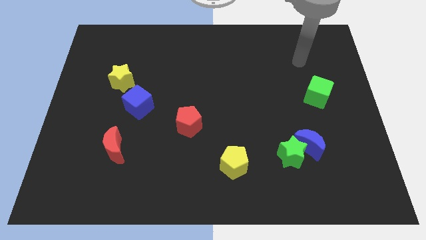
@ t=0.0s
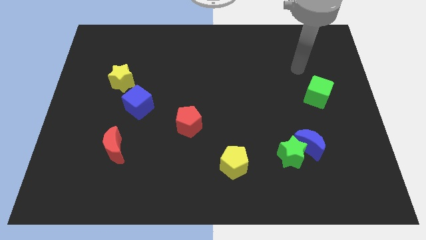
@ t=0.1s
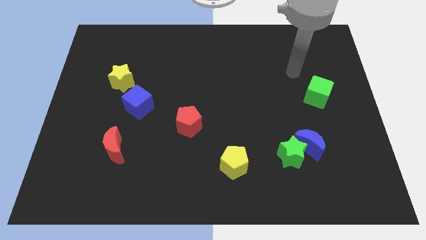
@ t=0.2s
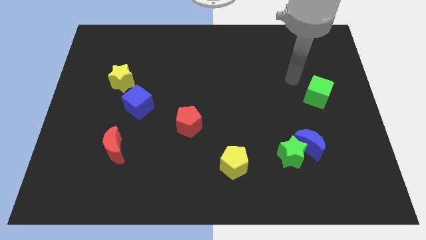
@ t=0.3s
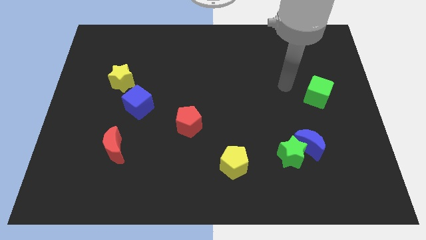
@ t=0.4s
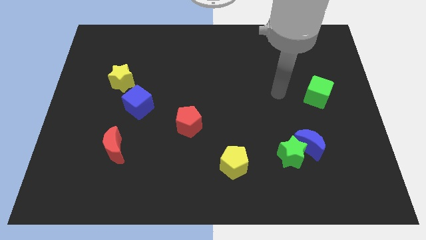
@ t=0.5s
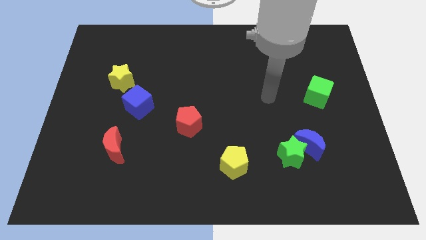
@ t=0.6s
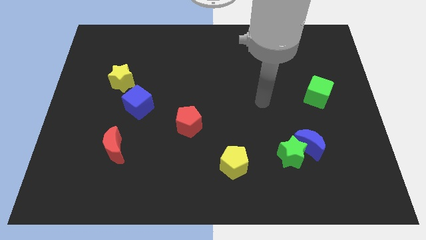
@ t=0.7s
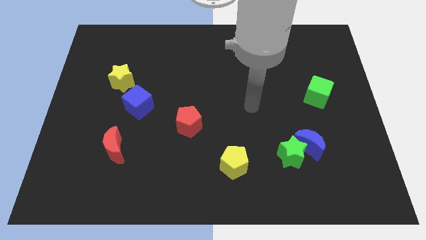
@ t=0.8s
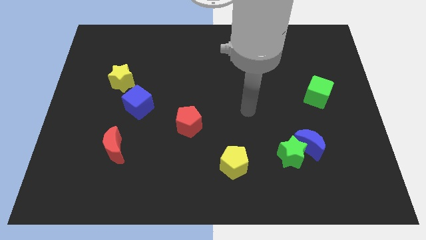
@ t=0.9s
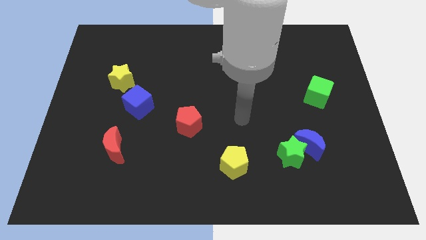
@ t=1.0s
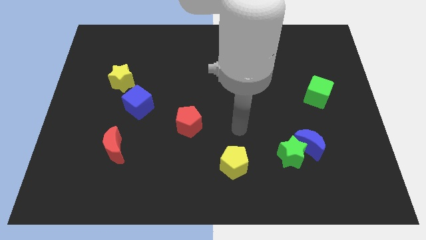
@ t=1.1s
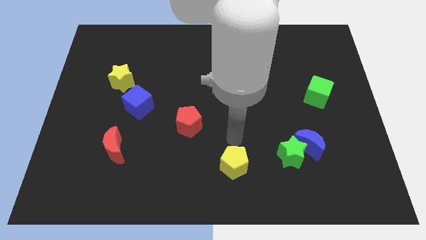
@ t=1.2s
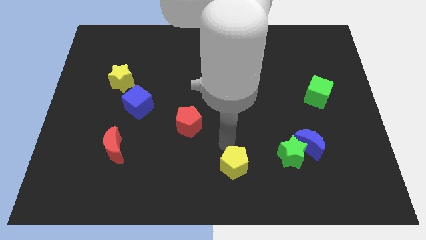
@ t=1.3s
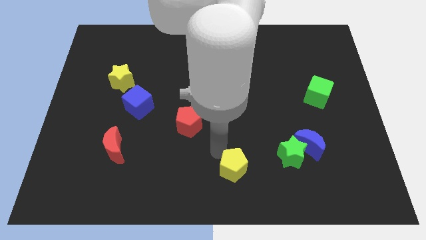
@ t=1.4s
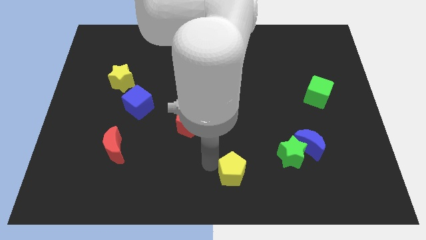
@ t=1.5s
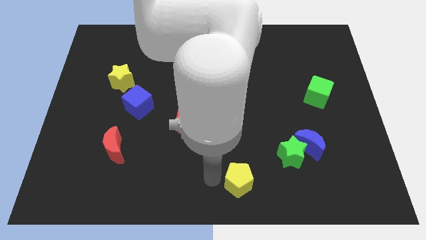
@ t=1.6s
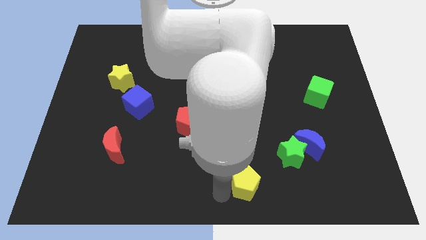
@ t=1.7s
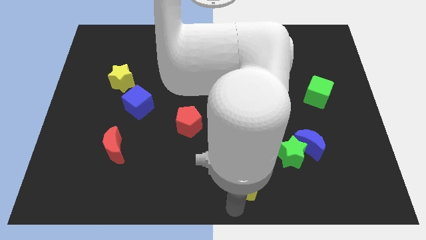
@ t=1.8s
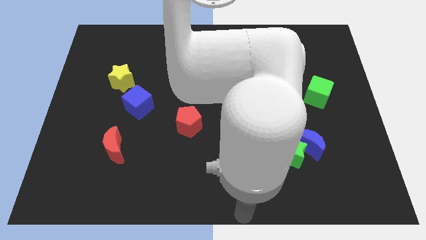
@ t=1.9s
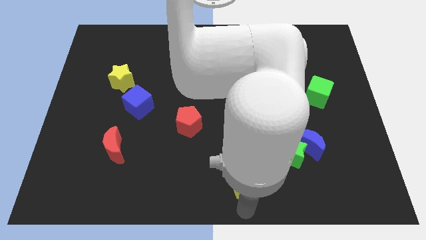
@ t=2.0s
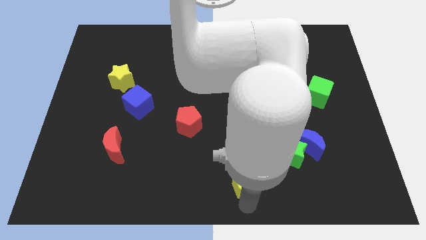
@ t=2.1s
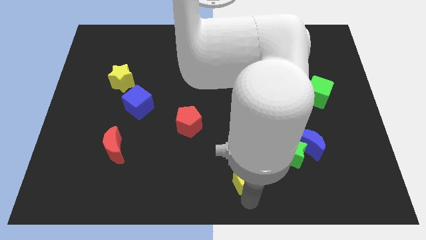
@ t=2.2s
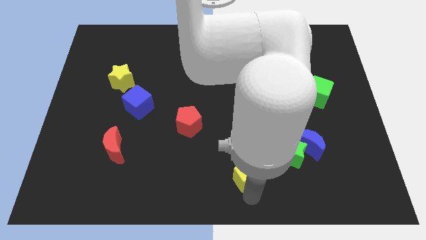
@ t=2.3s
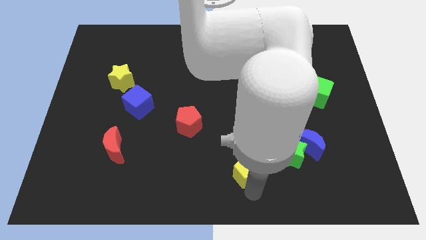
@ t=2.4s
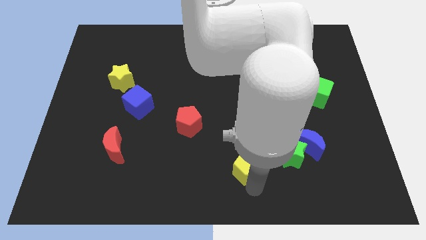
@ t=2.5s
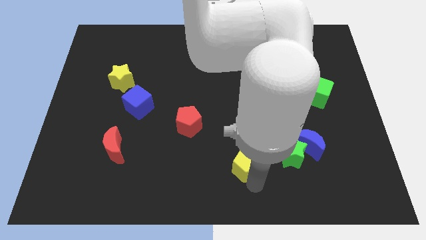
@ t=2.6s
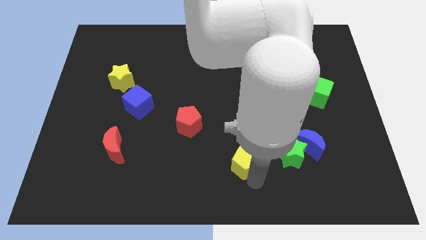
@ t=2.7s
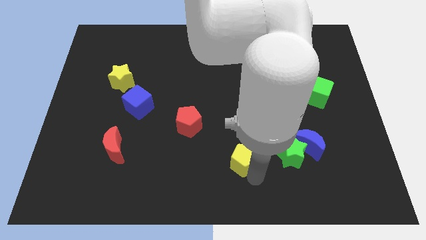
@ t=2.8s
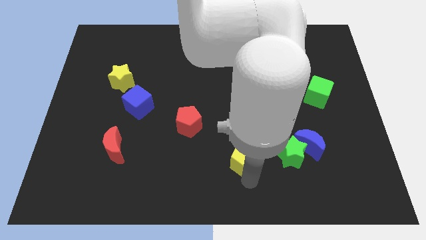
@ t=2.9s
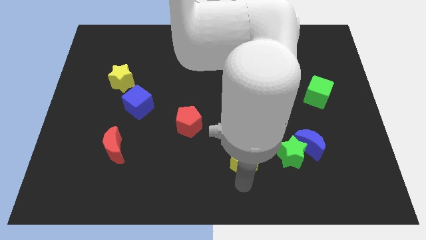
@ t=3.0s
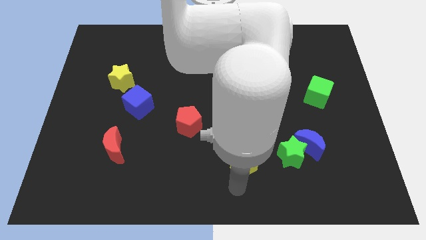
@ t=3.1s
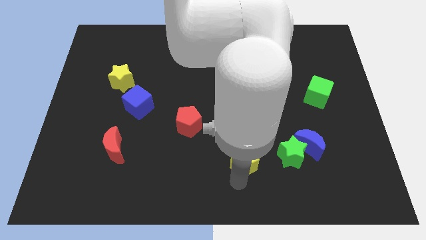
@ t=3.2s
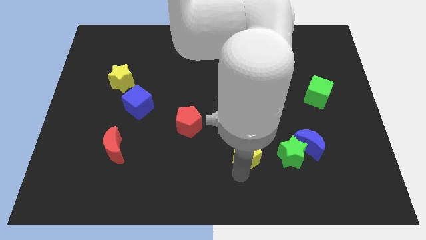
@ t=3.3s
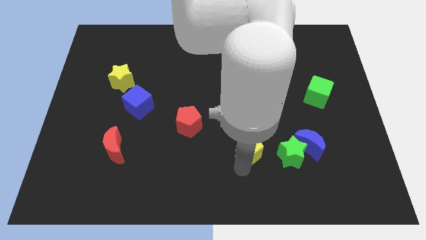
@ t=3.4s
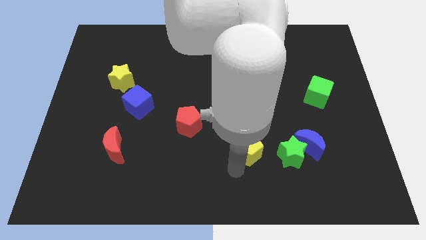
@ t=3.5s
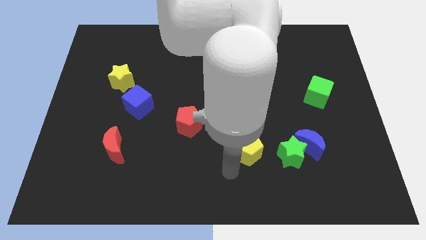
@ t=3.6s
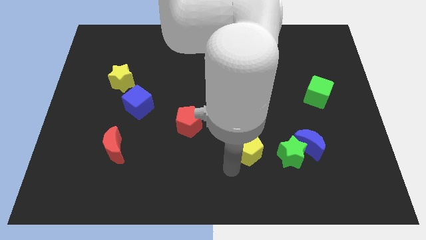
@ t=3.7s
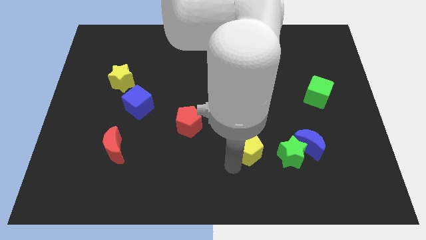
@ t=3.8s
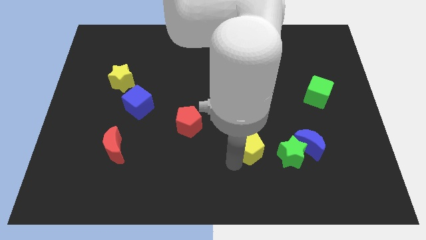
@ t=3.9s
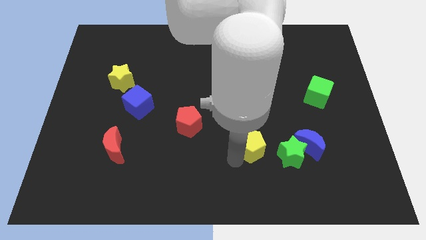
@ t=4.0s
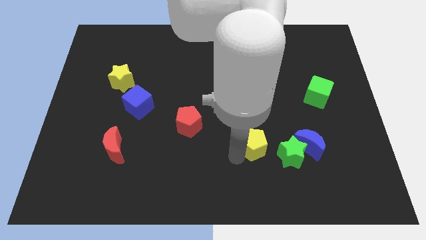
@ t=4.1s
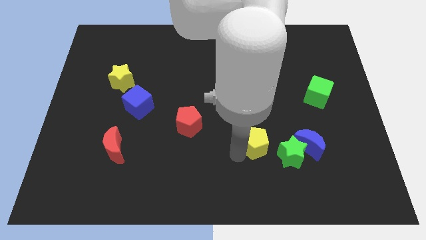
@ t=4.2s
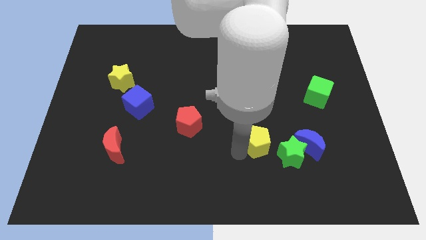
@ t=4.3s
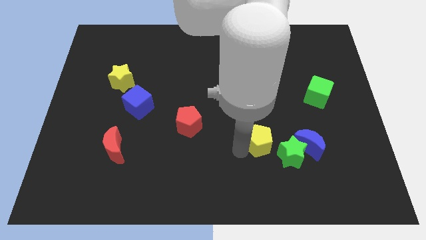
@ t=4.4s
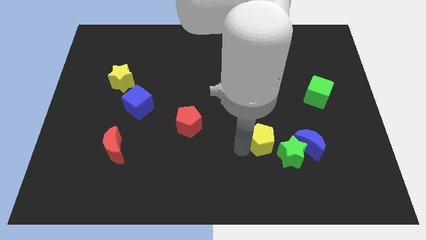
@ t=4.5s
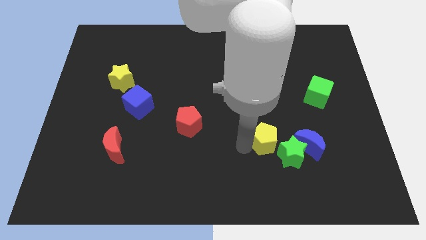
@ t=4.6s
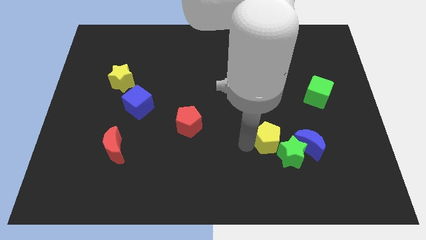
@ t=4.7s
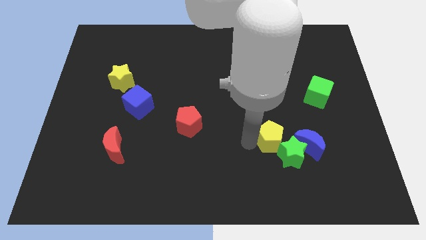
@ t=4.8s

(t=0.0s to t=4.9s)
put the yellow pentagon to the top left side of the blue moon

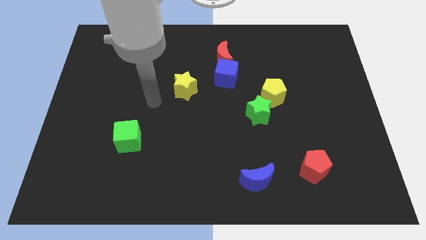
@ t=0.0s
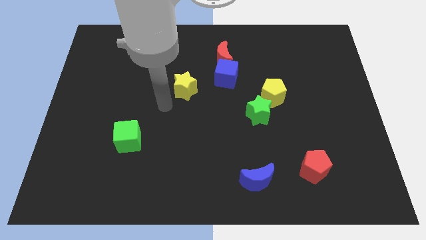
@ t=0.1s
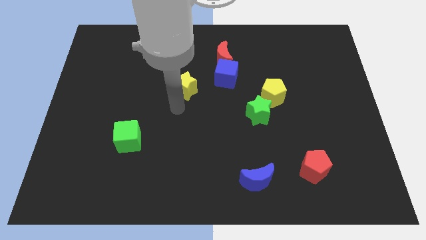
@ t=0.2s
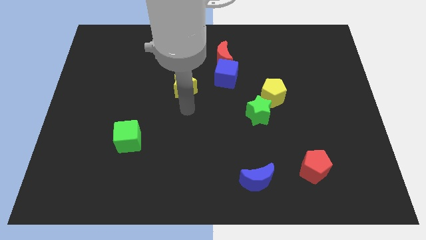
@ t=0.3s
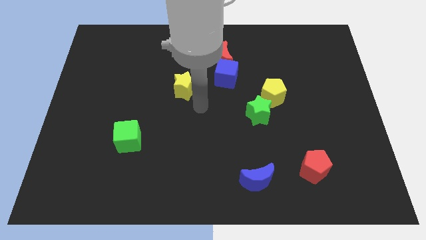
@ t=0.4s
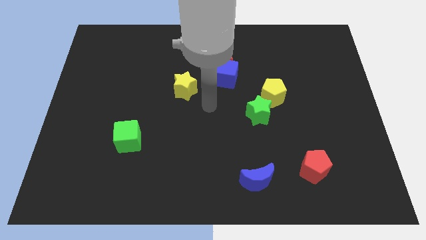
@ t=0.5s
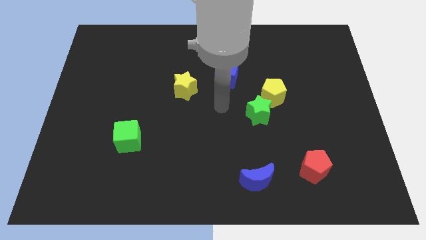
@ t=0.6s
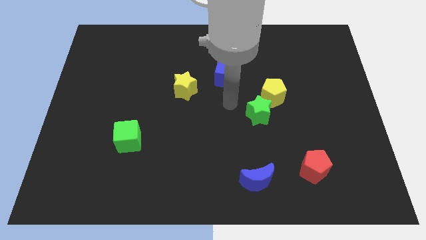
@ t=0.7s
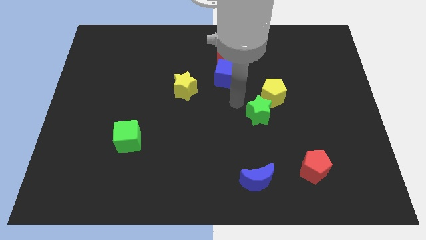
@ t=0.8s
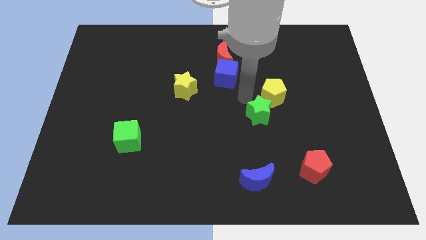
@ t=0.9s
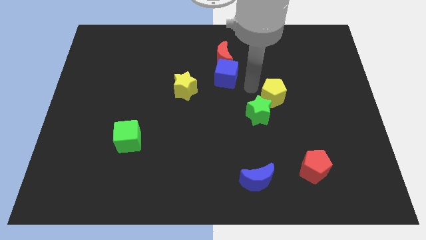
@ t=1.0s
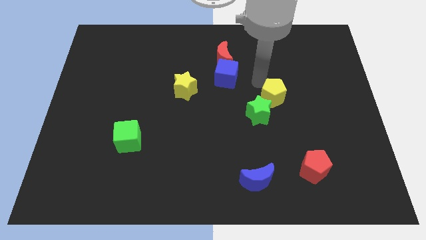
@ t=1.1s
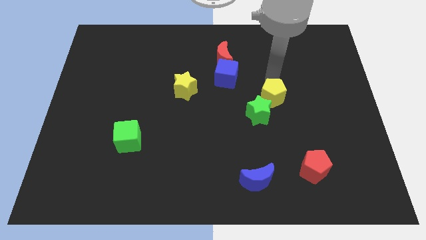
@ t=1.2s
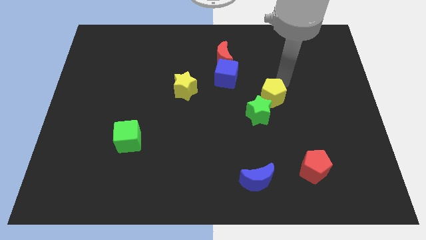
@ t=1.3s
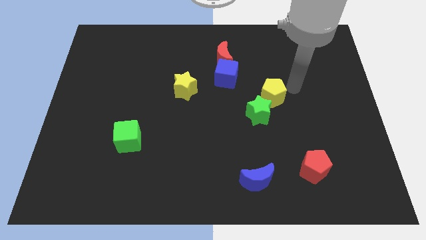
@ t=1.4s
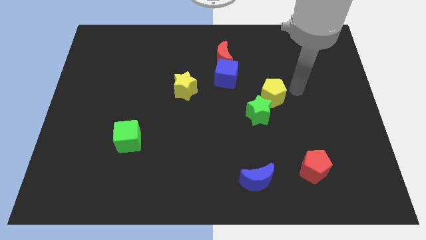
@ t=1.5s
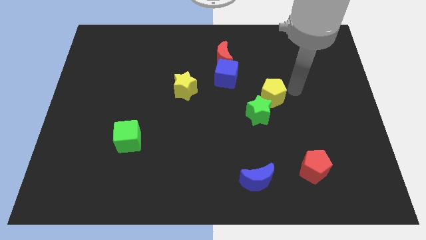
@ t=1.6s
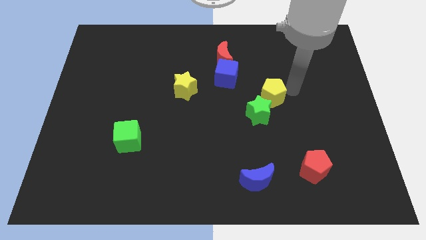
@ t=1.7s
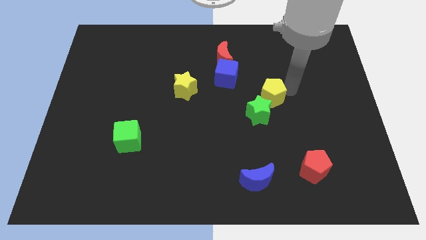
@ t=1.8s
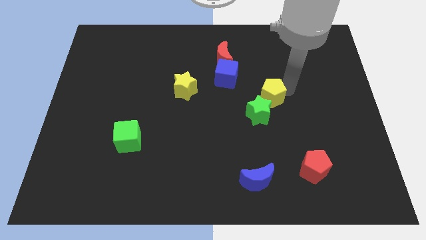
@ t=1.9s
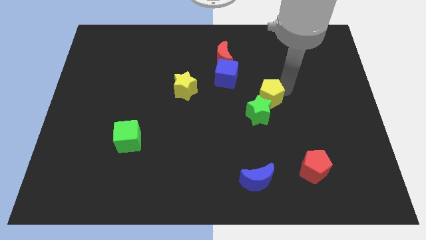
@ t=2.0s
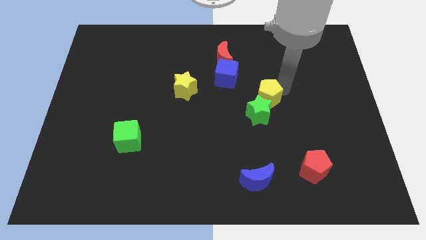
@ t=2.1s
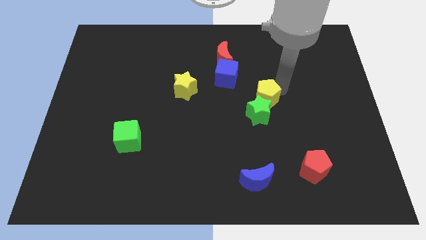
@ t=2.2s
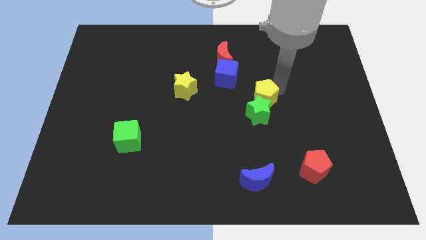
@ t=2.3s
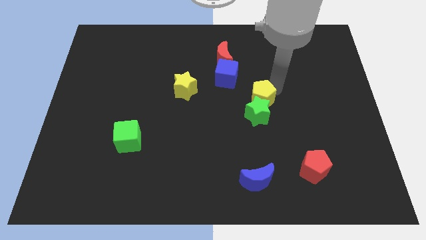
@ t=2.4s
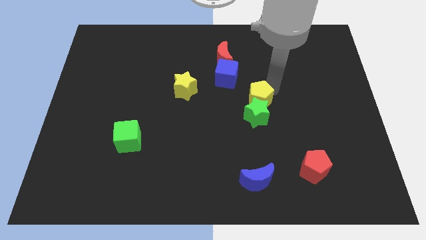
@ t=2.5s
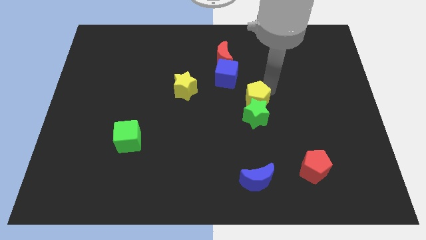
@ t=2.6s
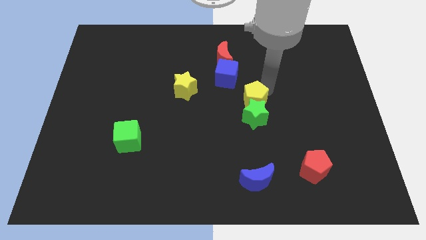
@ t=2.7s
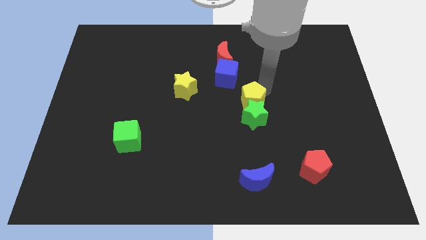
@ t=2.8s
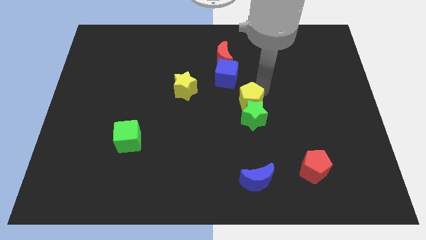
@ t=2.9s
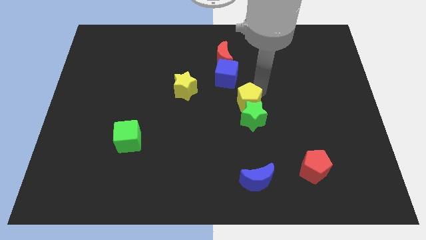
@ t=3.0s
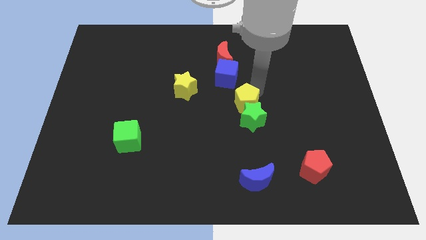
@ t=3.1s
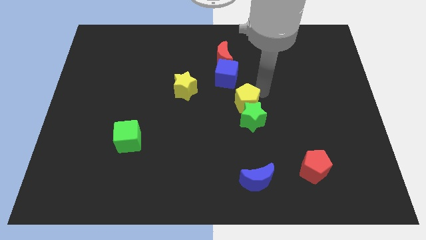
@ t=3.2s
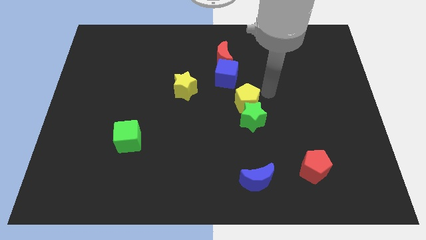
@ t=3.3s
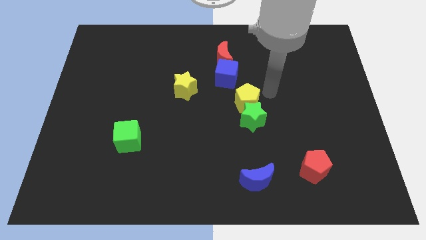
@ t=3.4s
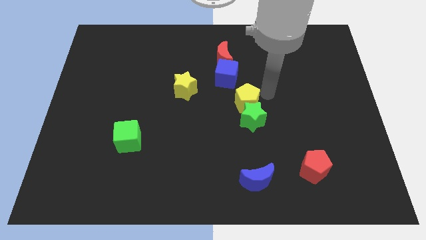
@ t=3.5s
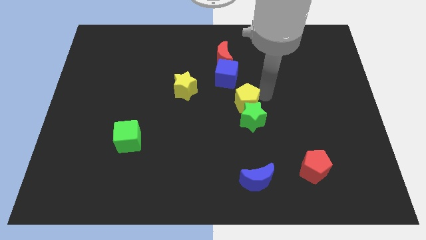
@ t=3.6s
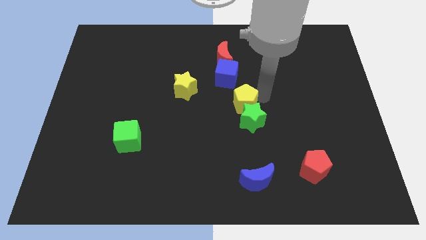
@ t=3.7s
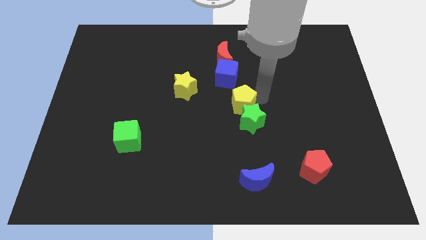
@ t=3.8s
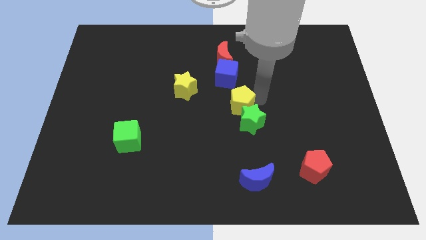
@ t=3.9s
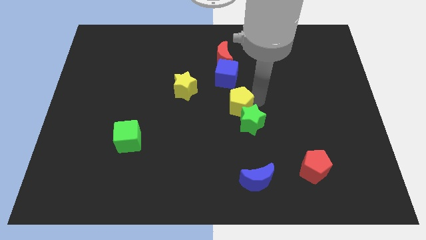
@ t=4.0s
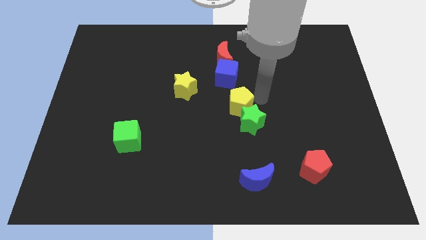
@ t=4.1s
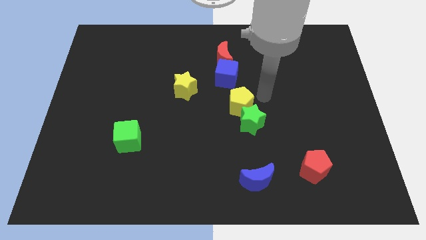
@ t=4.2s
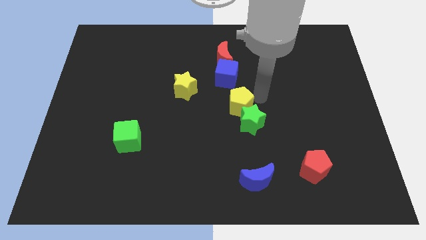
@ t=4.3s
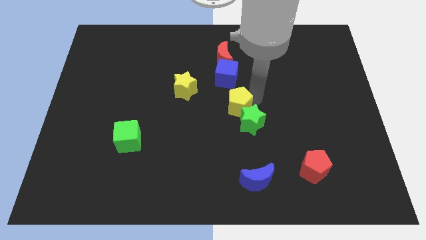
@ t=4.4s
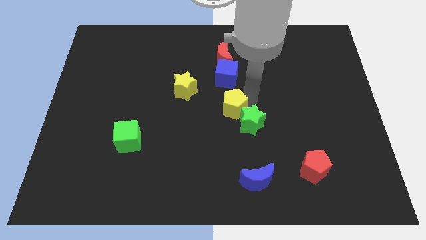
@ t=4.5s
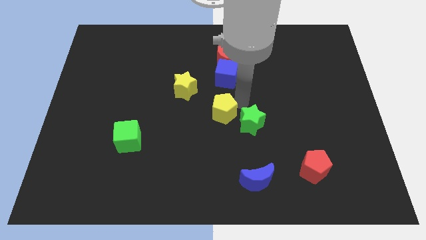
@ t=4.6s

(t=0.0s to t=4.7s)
move the yellow pentagon to the left of the green star
